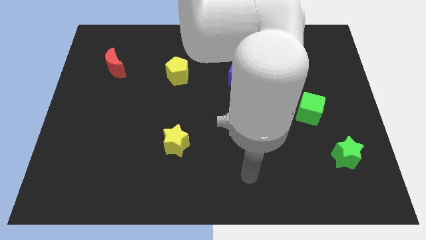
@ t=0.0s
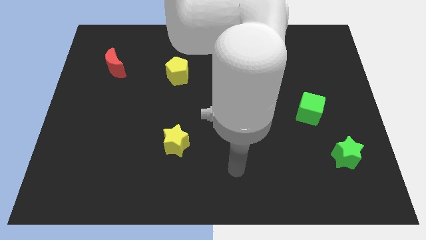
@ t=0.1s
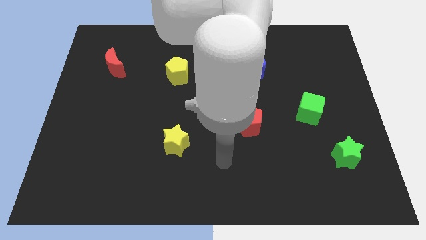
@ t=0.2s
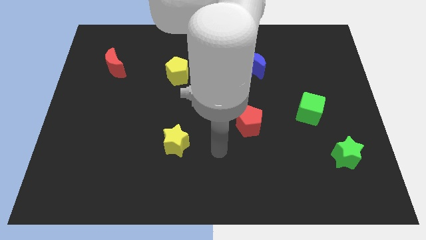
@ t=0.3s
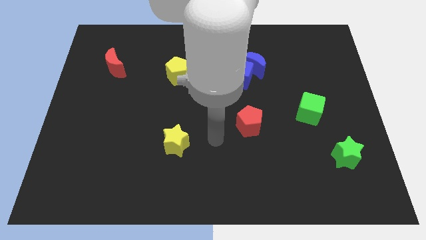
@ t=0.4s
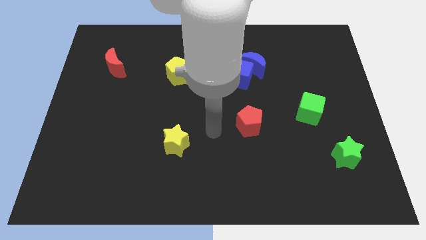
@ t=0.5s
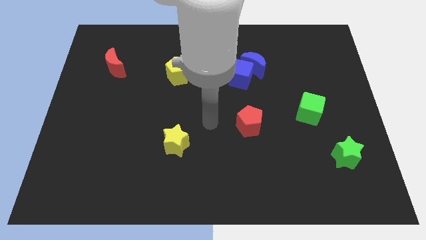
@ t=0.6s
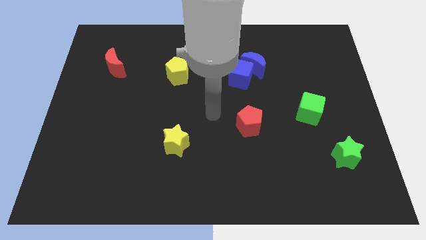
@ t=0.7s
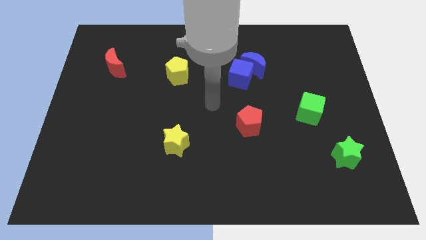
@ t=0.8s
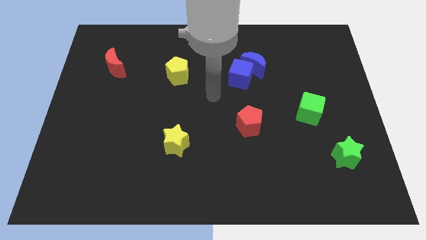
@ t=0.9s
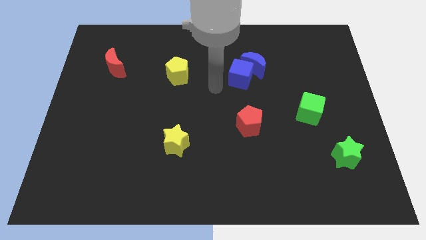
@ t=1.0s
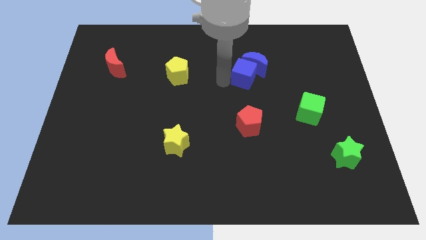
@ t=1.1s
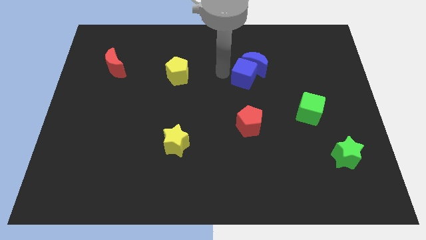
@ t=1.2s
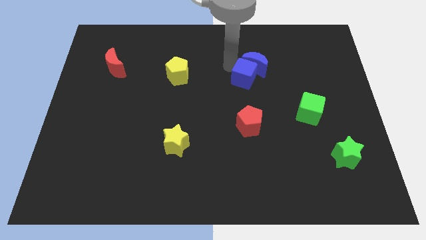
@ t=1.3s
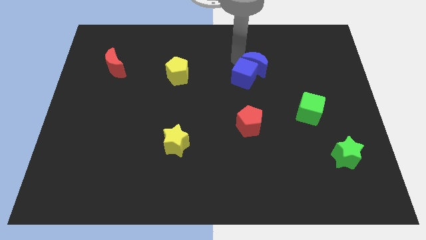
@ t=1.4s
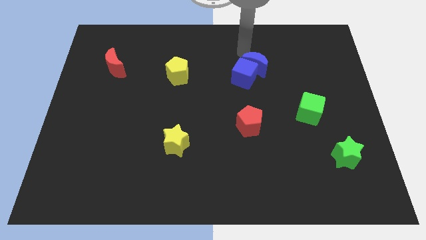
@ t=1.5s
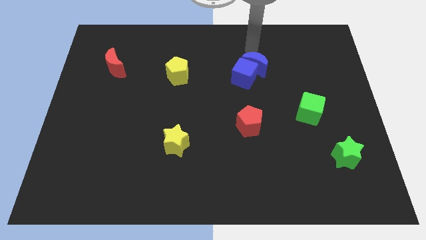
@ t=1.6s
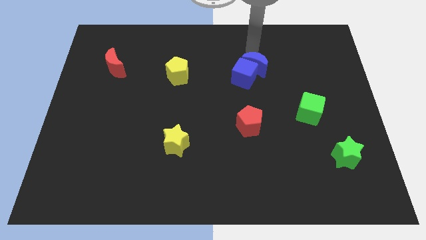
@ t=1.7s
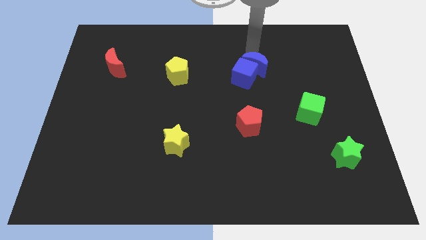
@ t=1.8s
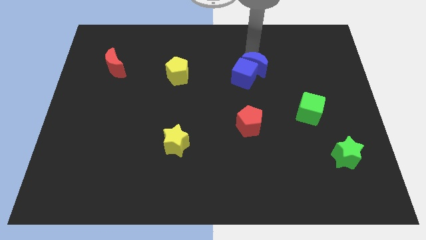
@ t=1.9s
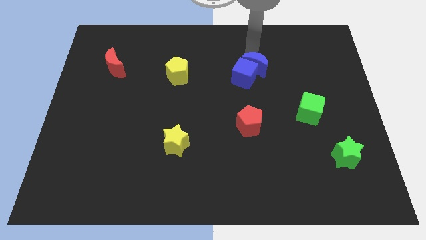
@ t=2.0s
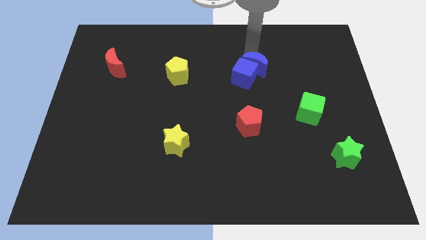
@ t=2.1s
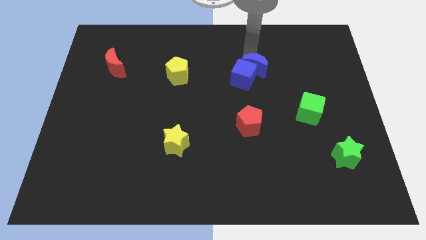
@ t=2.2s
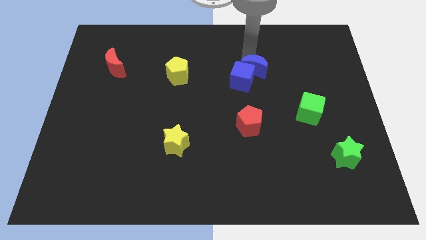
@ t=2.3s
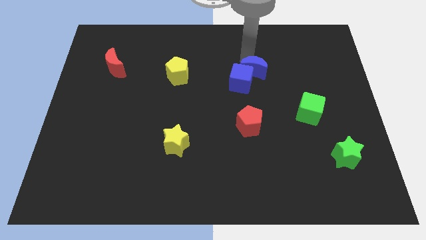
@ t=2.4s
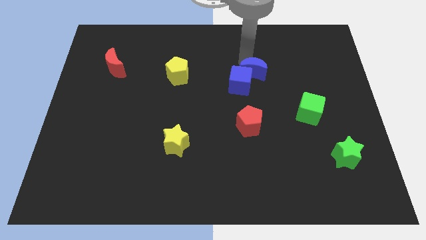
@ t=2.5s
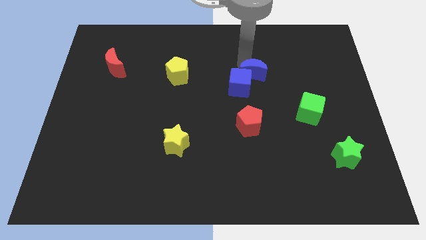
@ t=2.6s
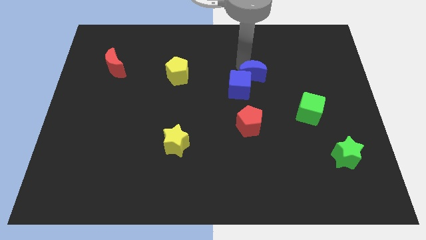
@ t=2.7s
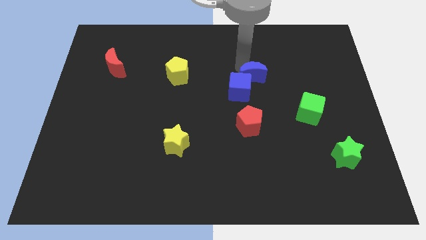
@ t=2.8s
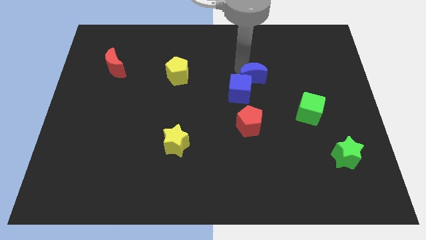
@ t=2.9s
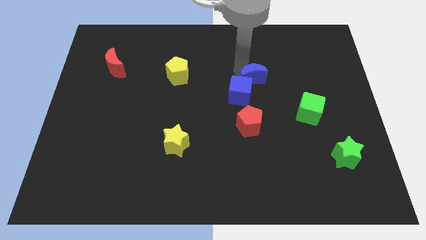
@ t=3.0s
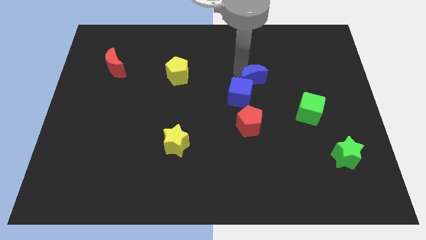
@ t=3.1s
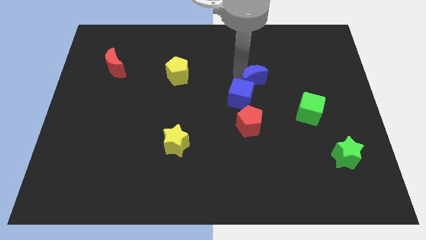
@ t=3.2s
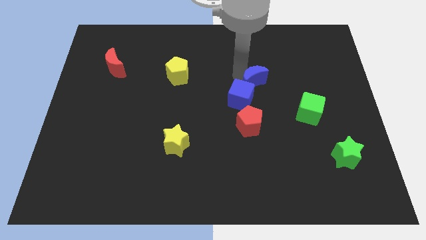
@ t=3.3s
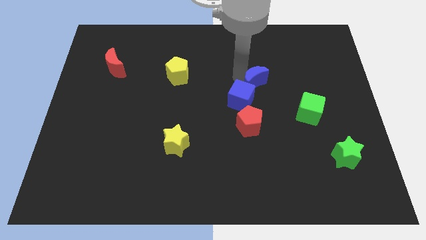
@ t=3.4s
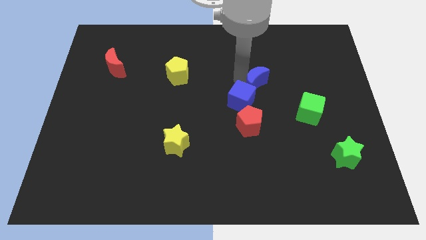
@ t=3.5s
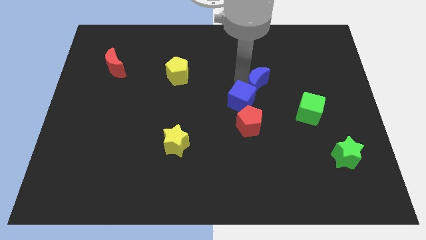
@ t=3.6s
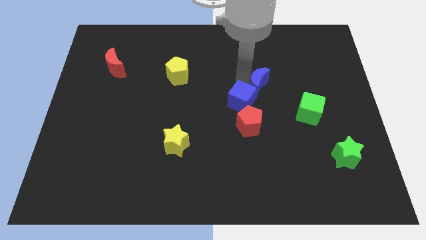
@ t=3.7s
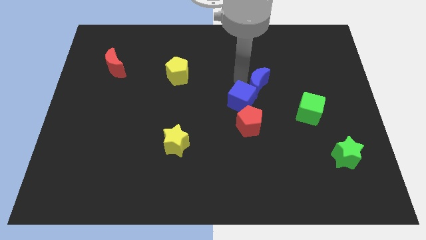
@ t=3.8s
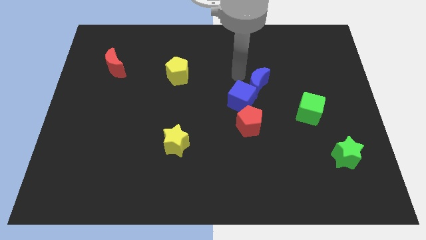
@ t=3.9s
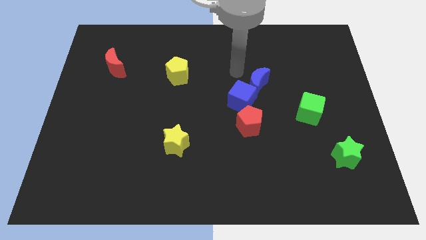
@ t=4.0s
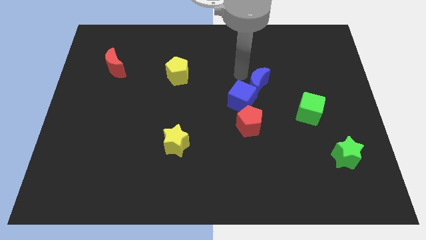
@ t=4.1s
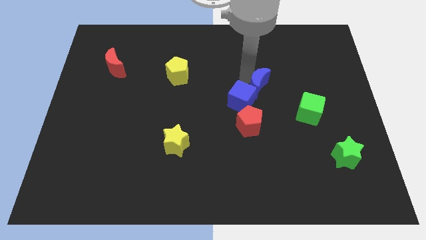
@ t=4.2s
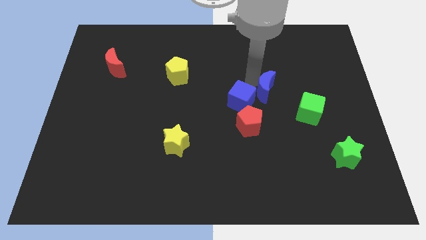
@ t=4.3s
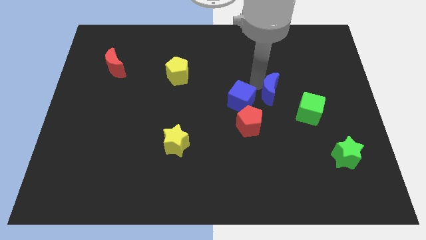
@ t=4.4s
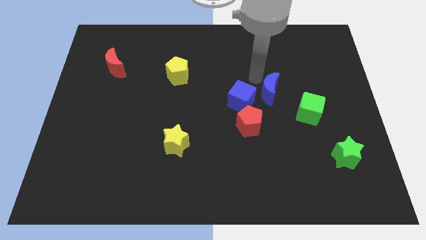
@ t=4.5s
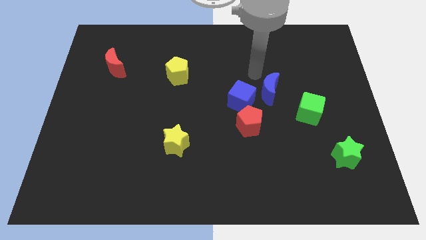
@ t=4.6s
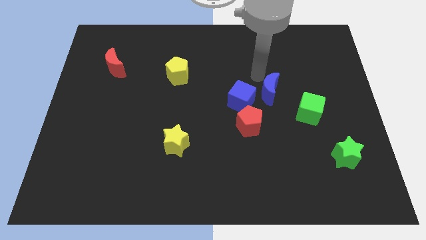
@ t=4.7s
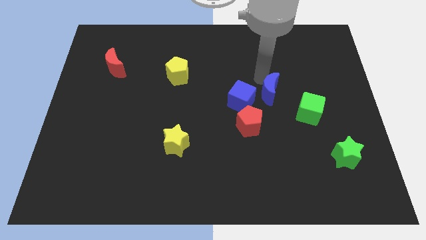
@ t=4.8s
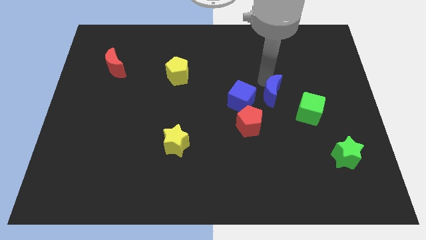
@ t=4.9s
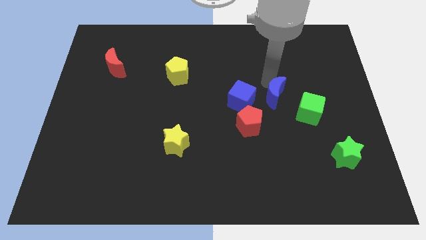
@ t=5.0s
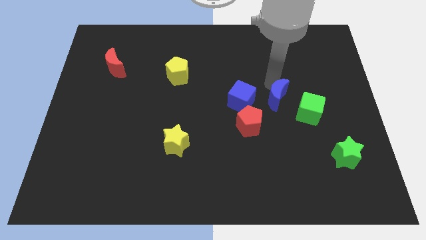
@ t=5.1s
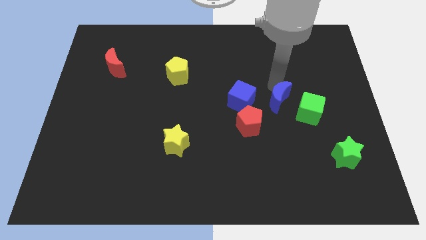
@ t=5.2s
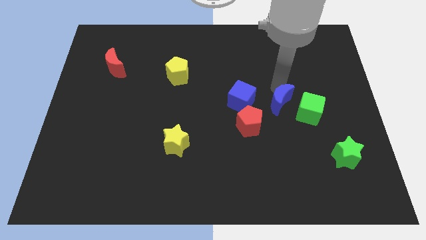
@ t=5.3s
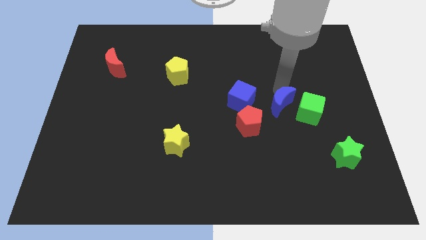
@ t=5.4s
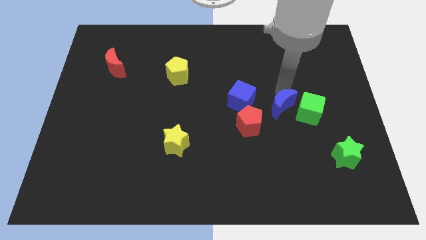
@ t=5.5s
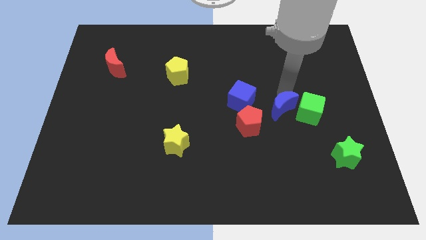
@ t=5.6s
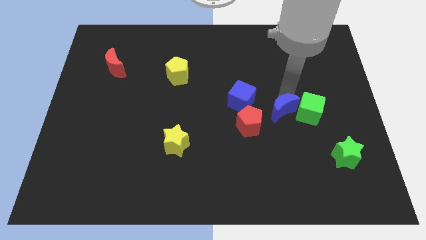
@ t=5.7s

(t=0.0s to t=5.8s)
slide the blue moon right of the red pentagon
